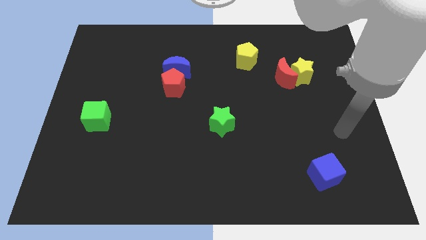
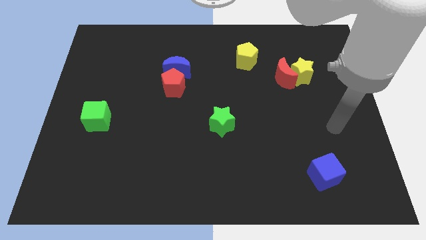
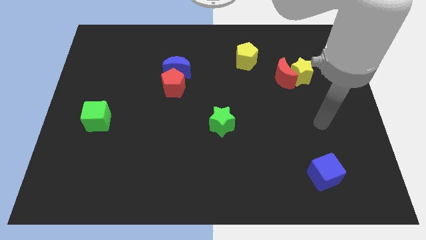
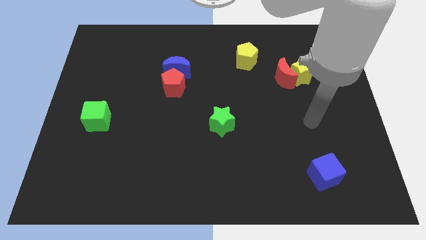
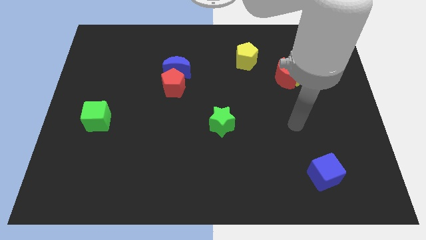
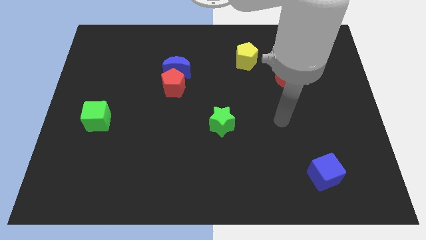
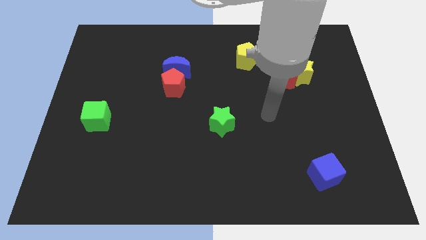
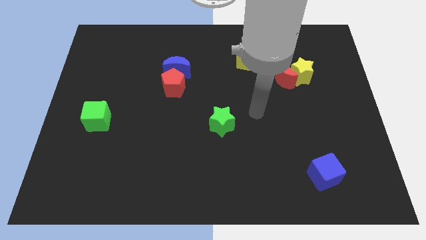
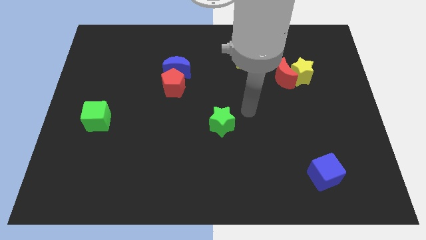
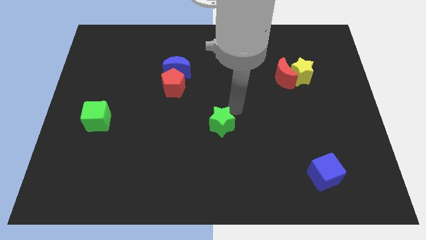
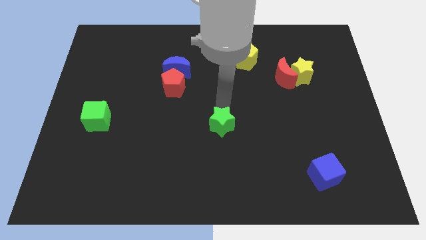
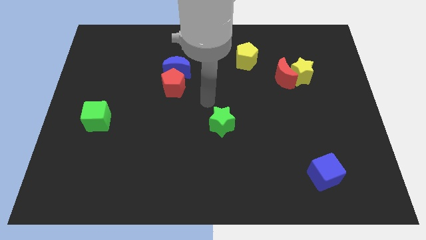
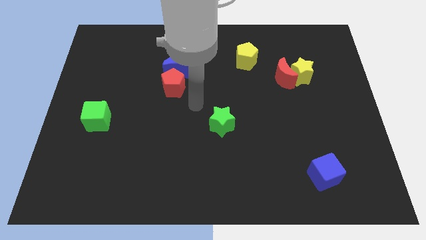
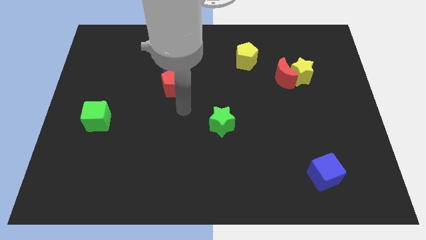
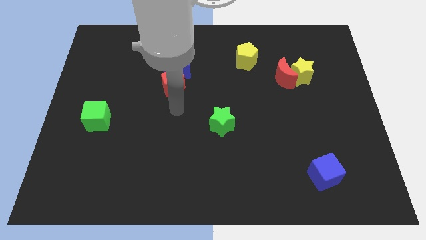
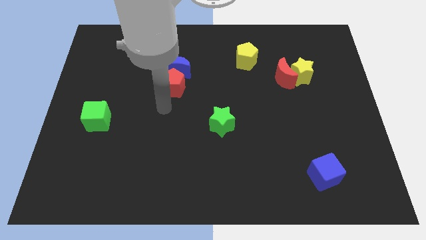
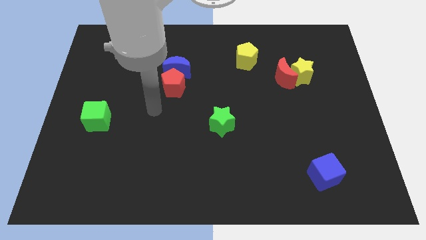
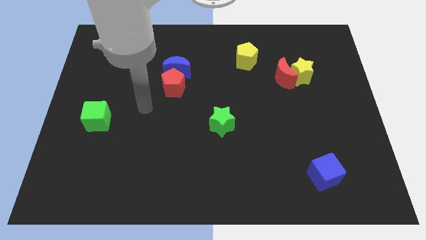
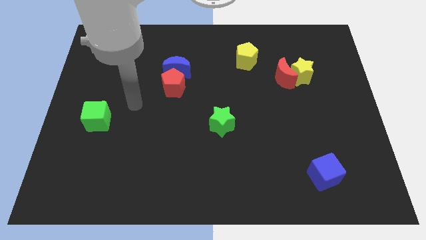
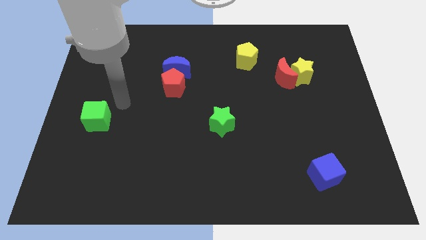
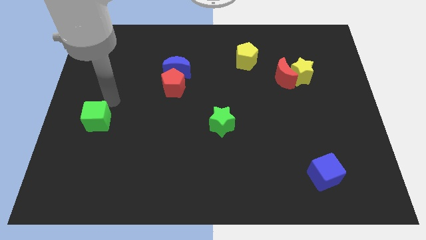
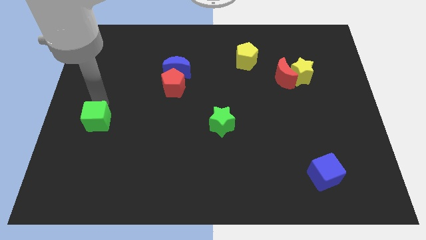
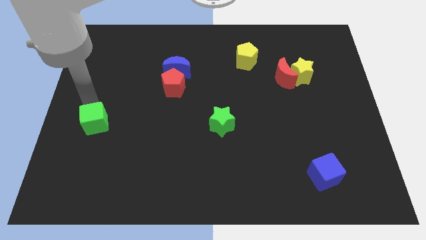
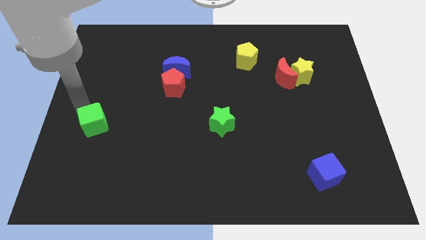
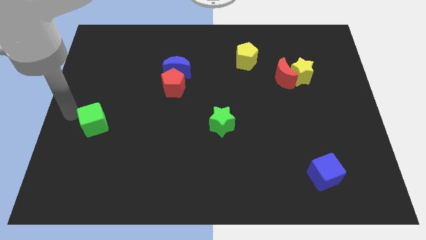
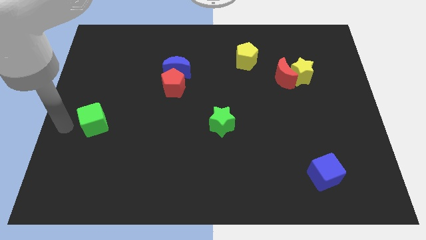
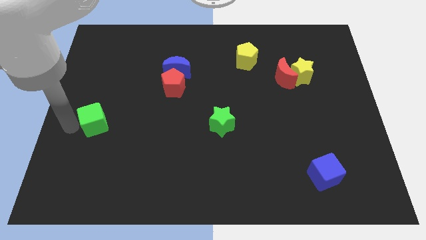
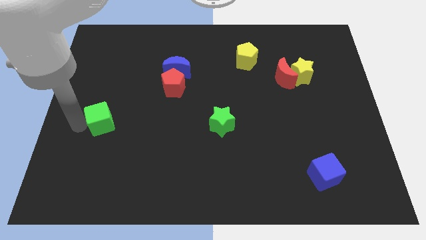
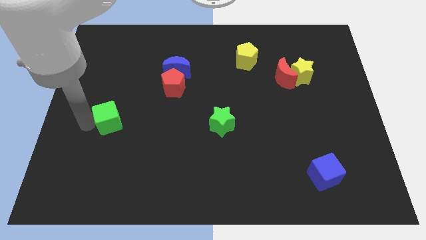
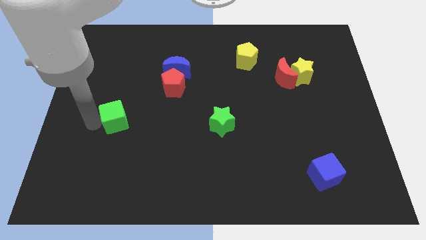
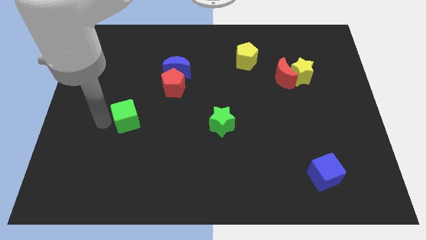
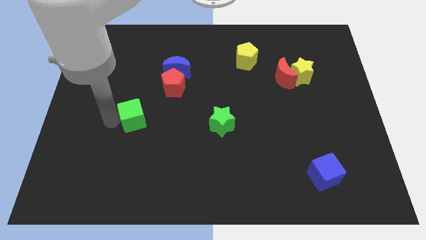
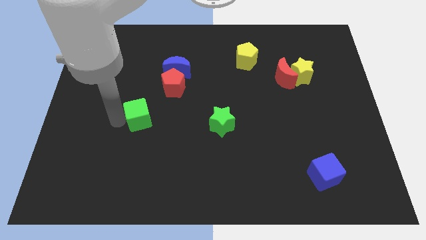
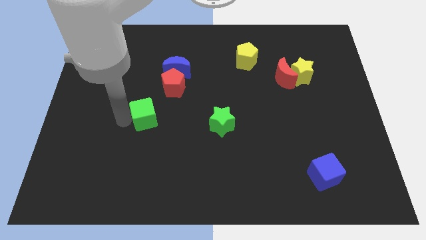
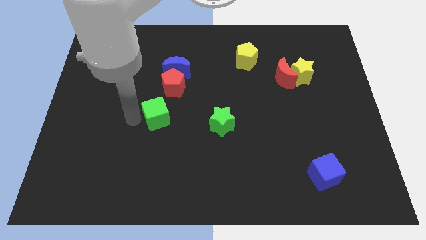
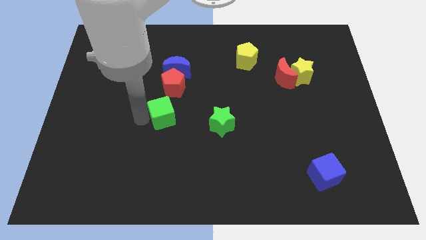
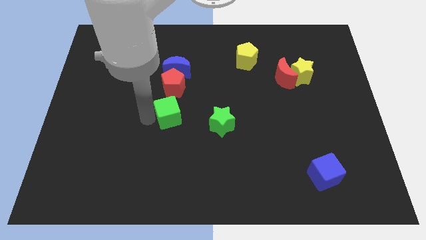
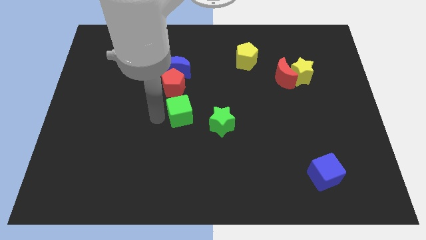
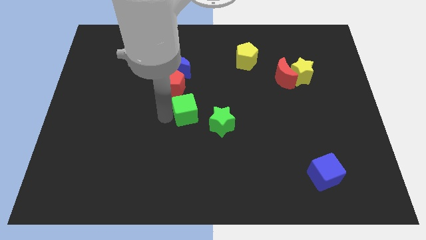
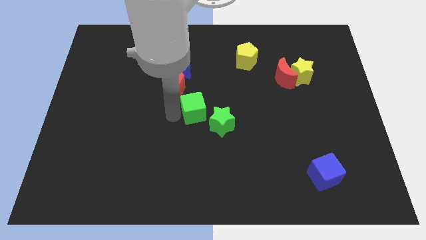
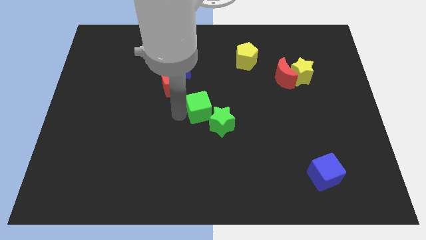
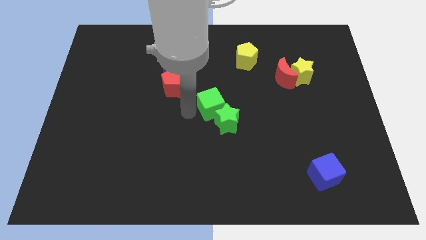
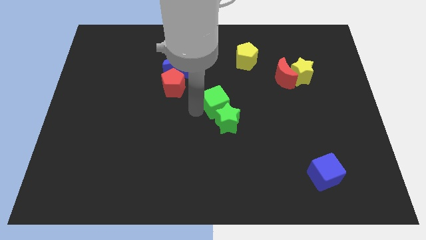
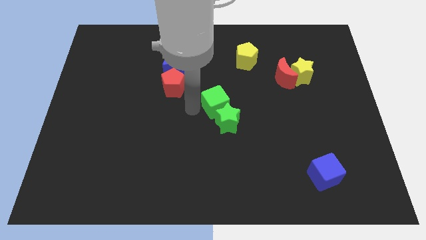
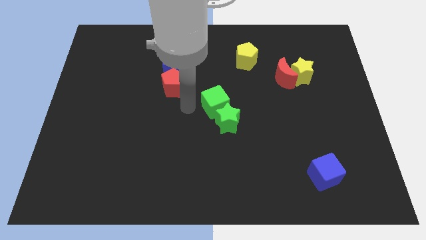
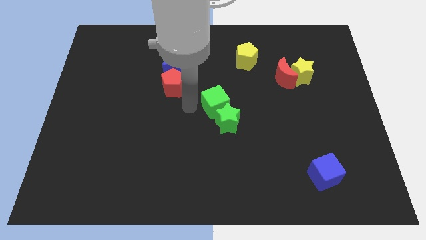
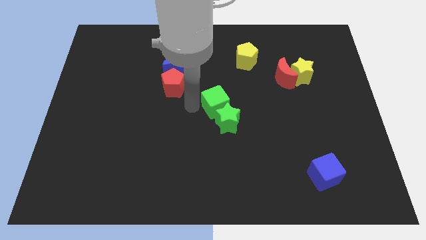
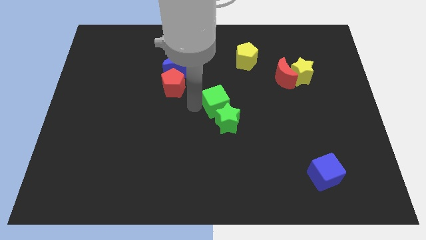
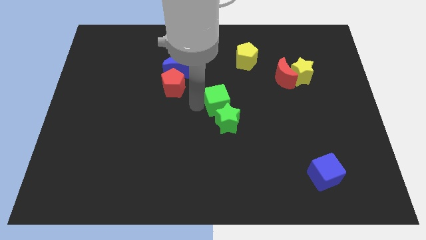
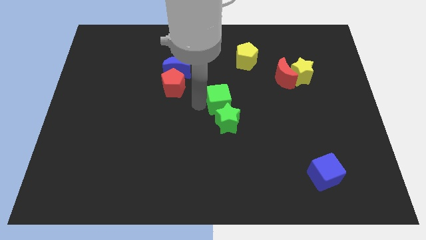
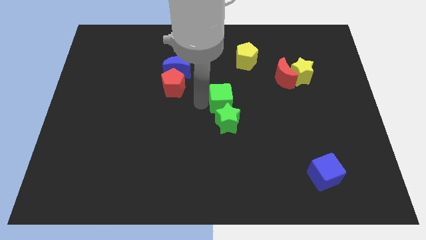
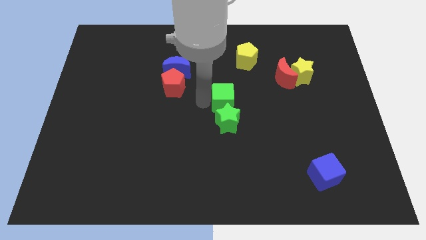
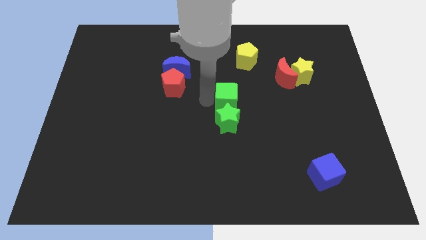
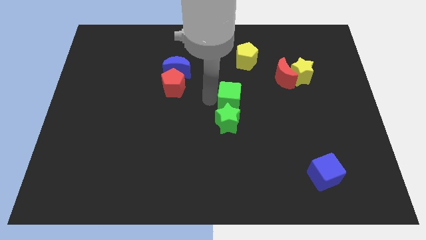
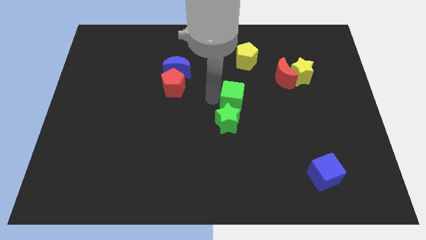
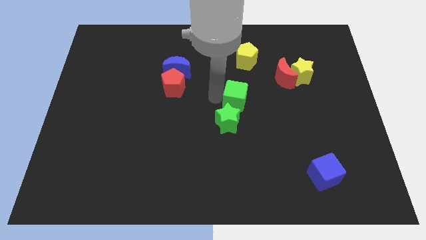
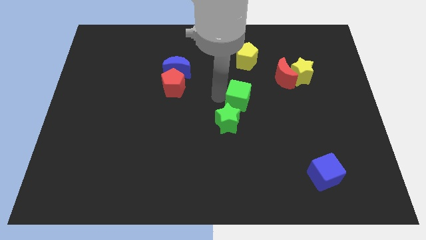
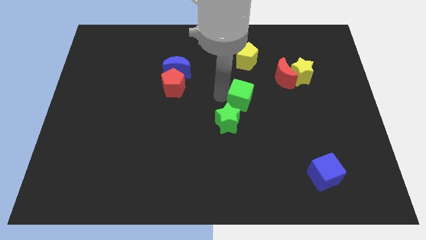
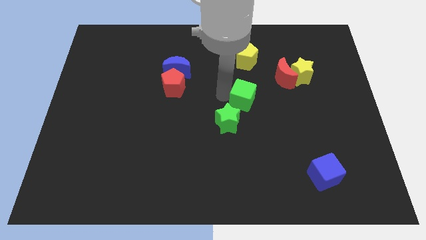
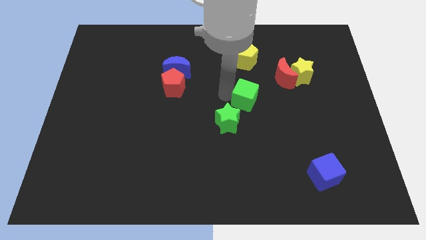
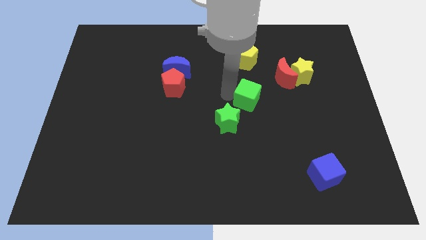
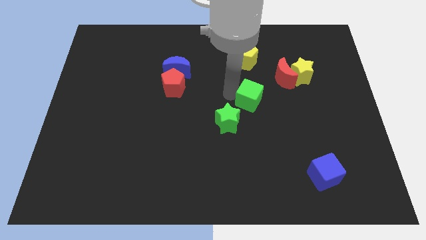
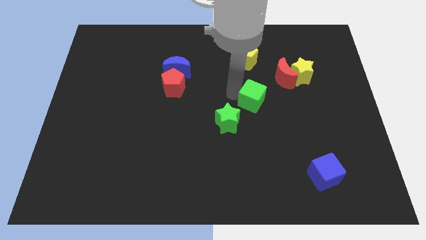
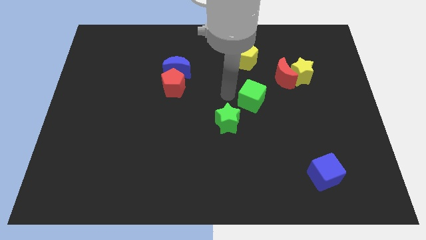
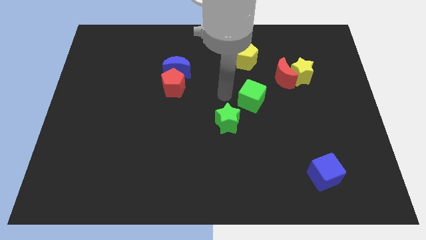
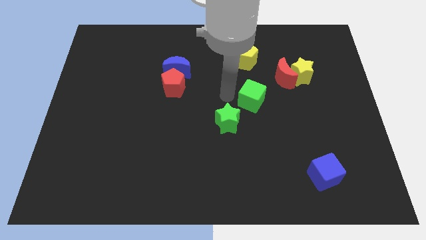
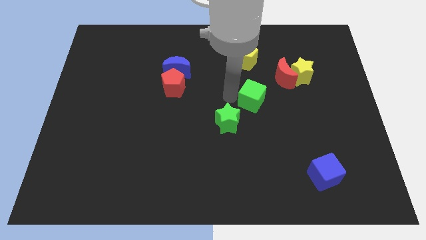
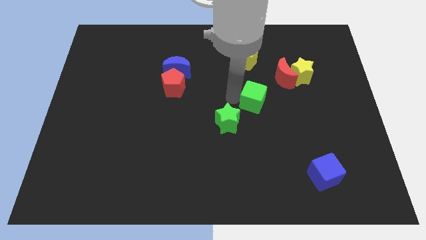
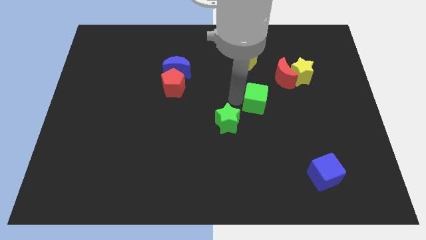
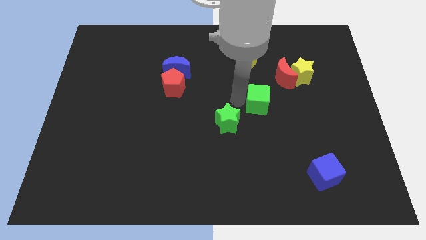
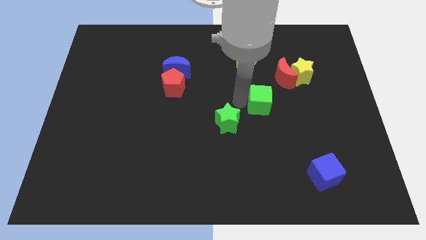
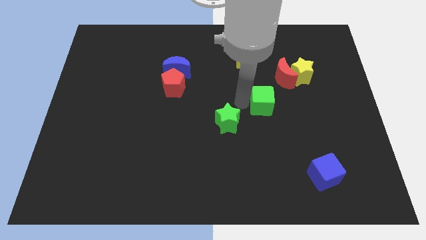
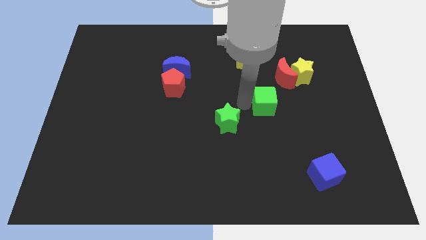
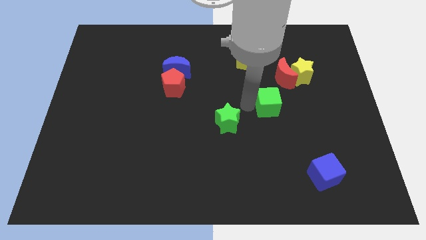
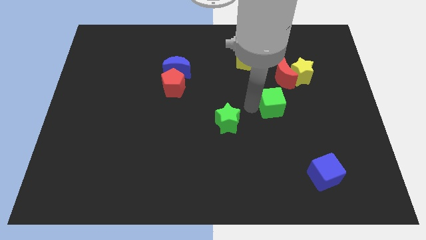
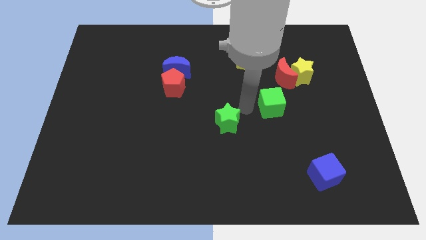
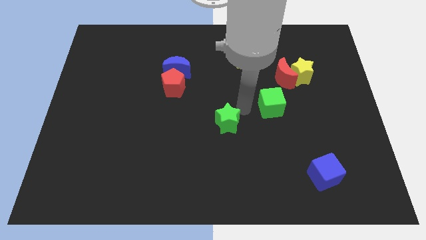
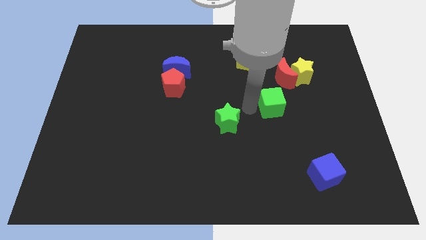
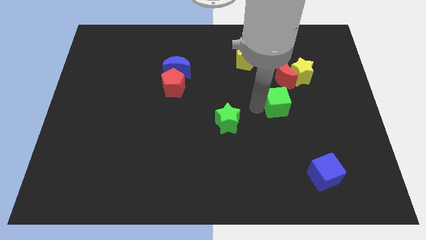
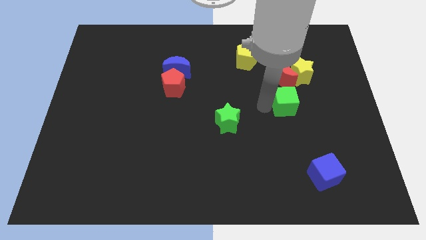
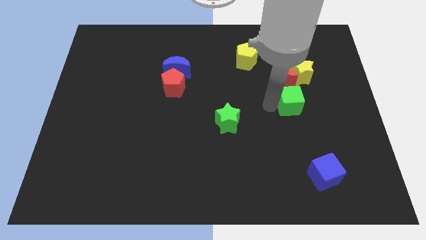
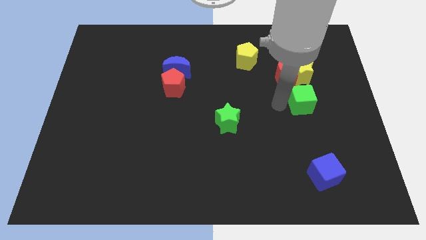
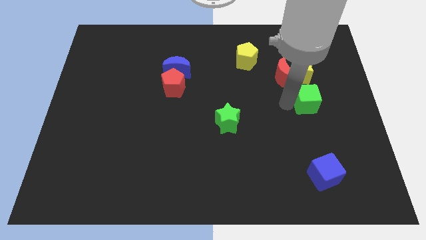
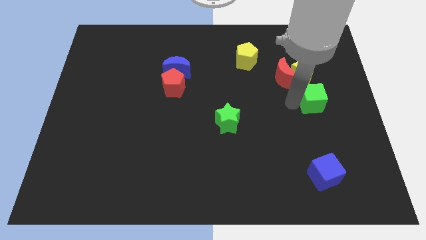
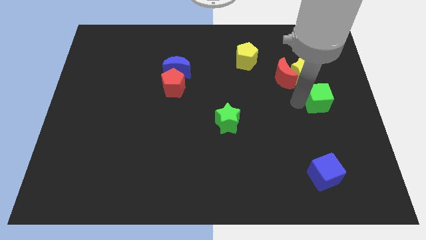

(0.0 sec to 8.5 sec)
push the green cube to the right side
